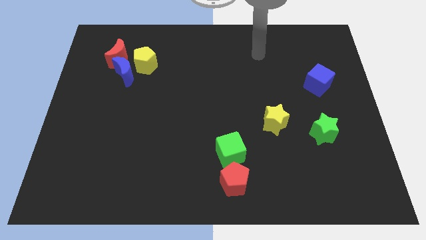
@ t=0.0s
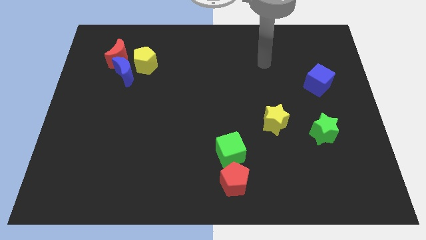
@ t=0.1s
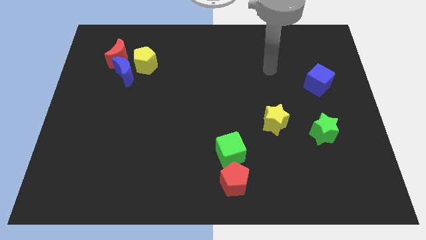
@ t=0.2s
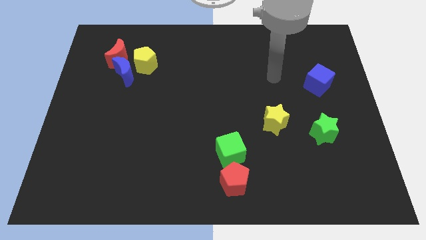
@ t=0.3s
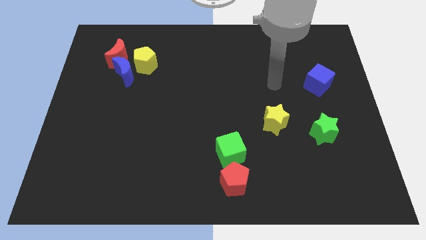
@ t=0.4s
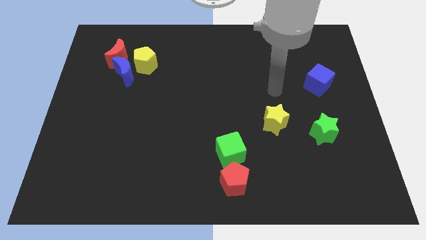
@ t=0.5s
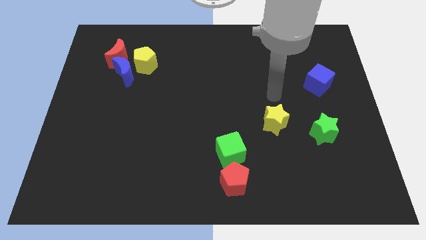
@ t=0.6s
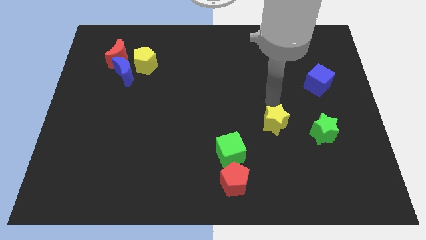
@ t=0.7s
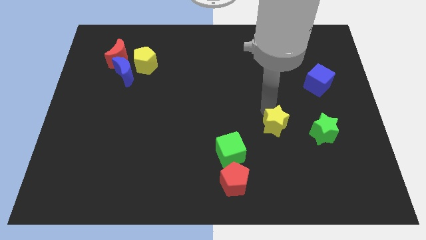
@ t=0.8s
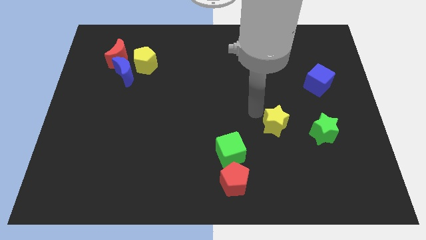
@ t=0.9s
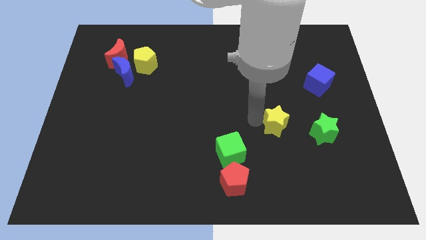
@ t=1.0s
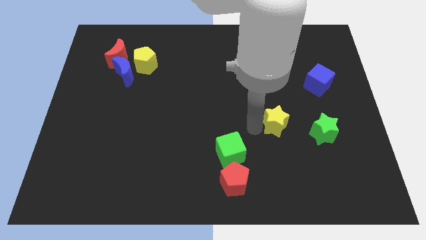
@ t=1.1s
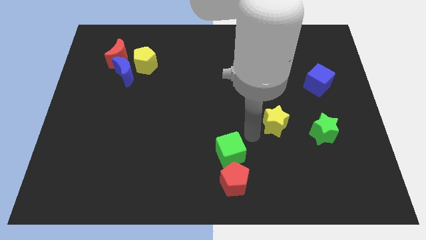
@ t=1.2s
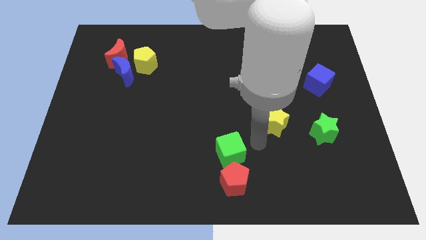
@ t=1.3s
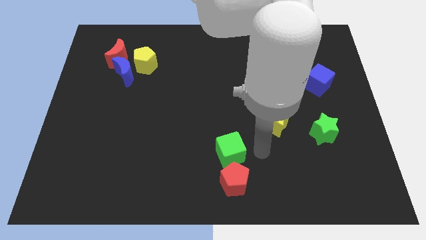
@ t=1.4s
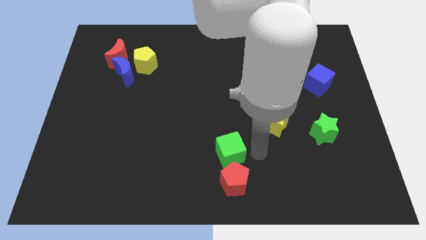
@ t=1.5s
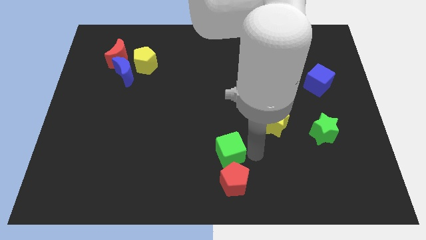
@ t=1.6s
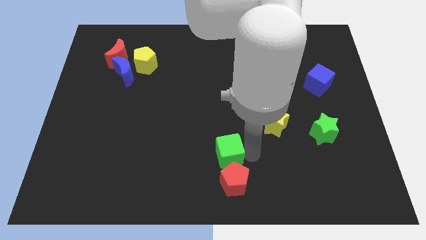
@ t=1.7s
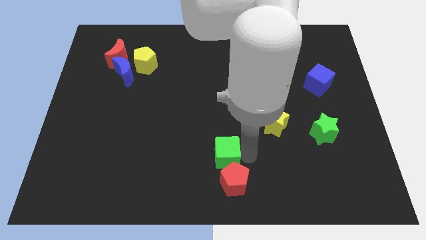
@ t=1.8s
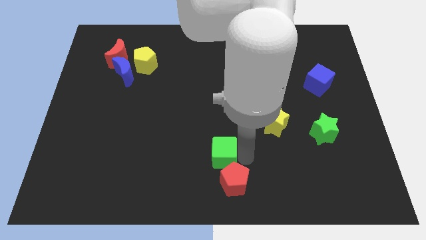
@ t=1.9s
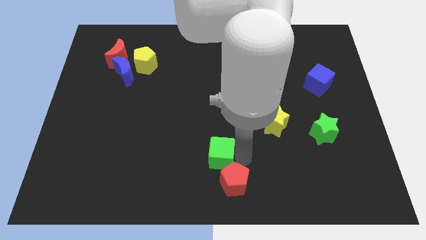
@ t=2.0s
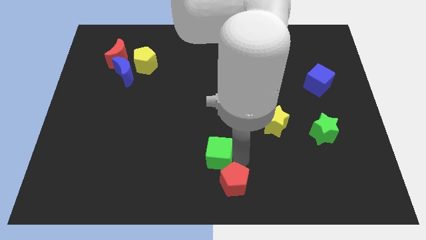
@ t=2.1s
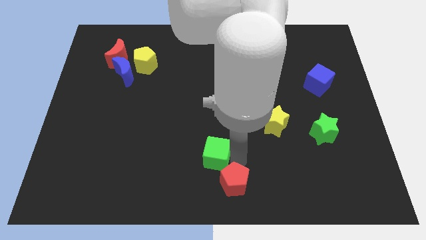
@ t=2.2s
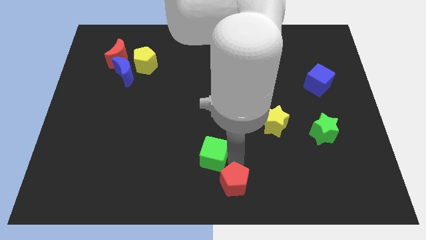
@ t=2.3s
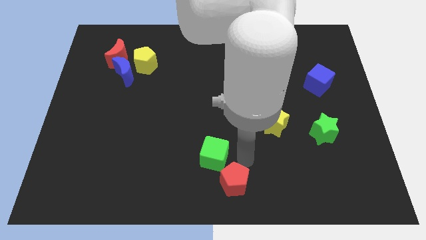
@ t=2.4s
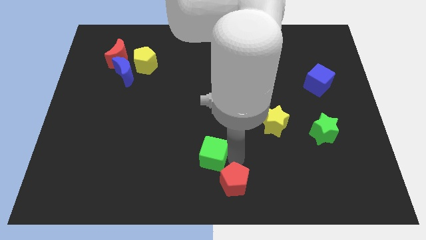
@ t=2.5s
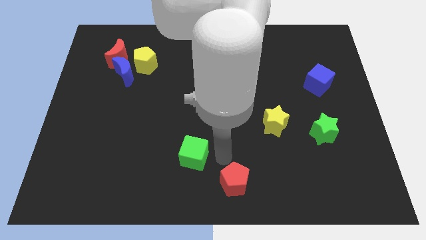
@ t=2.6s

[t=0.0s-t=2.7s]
move the green cube a bit left

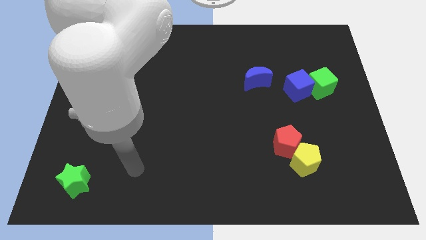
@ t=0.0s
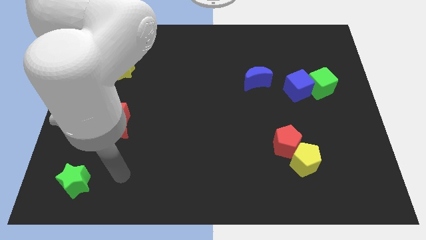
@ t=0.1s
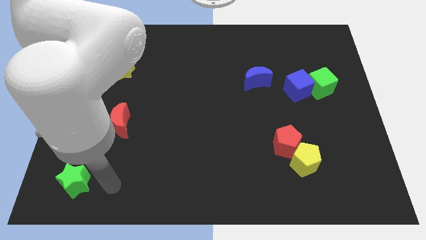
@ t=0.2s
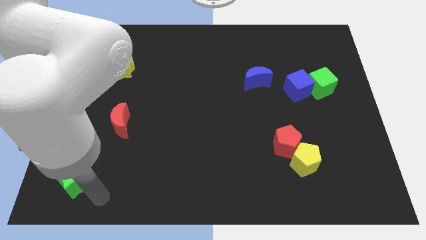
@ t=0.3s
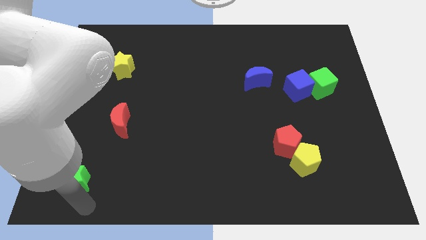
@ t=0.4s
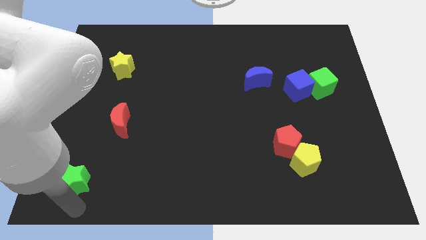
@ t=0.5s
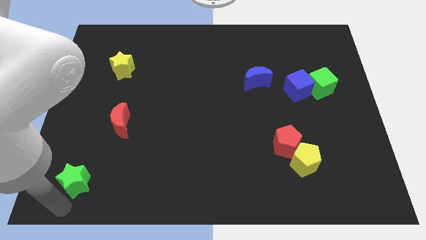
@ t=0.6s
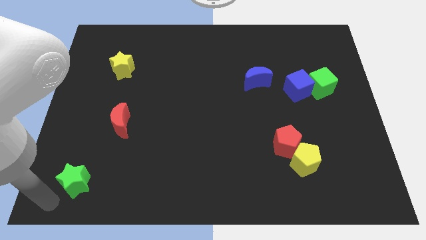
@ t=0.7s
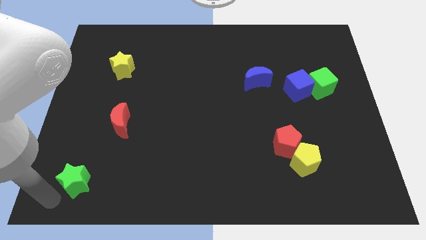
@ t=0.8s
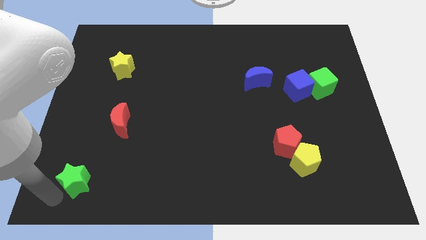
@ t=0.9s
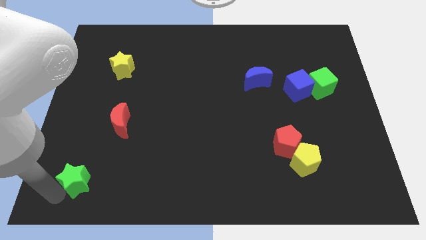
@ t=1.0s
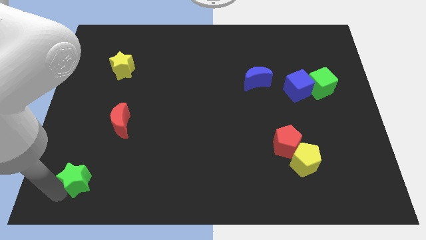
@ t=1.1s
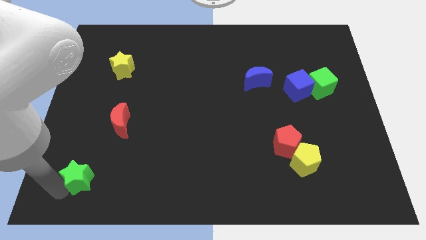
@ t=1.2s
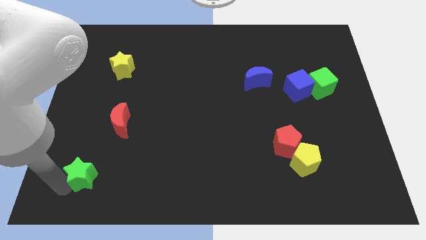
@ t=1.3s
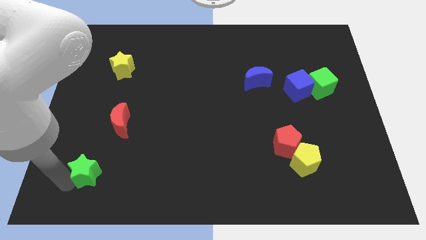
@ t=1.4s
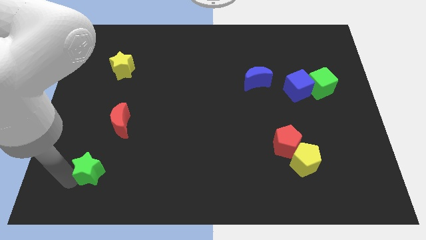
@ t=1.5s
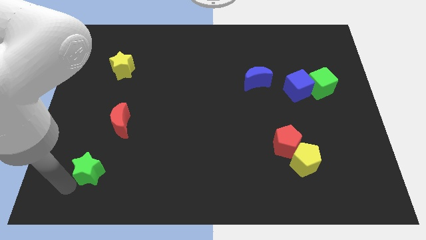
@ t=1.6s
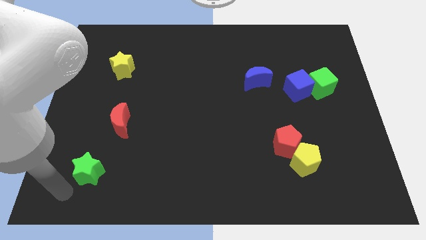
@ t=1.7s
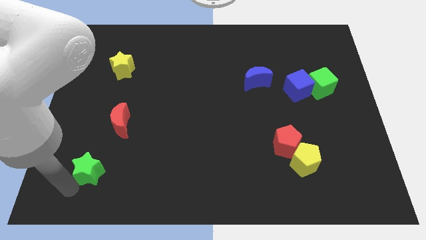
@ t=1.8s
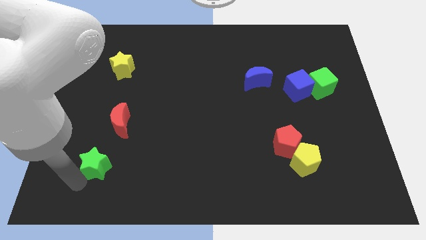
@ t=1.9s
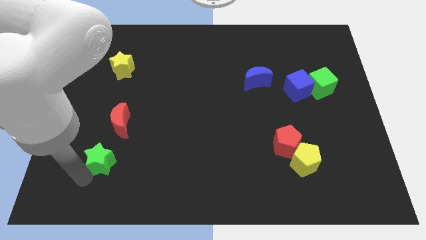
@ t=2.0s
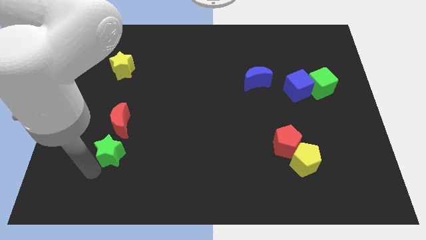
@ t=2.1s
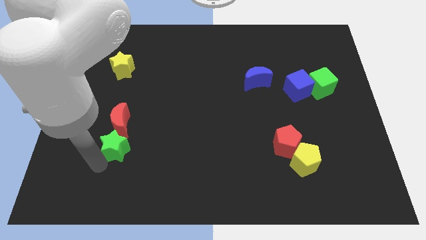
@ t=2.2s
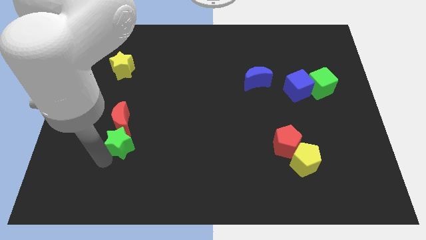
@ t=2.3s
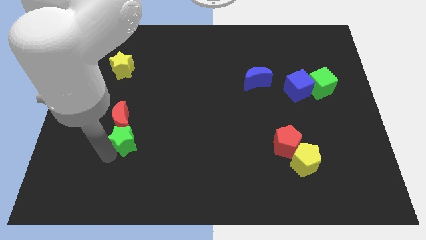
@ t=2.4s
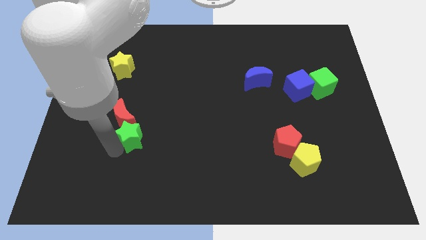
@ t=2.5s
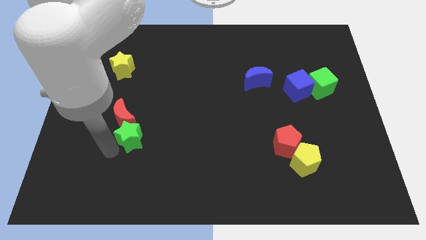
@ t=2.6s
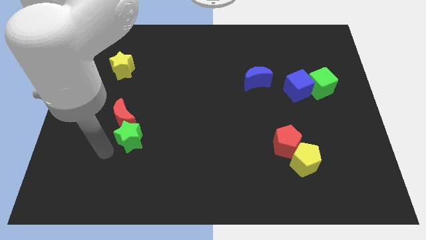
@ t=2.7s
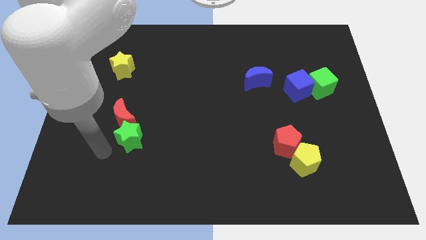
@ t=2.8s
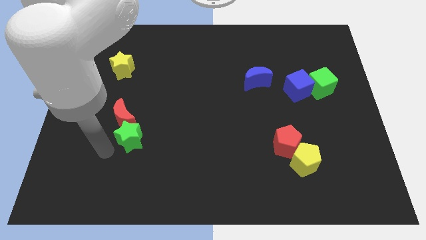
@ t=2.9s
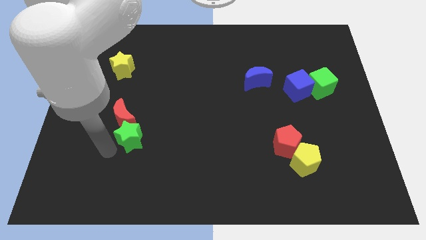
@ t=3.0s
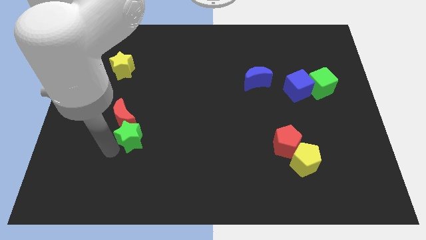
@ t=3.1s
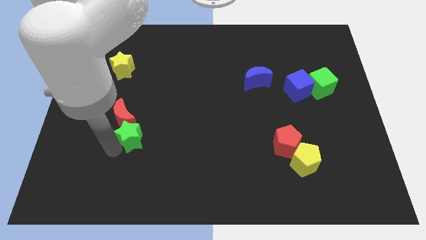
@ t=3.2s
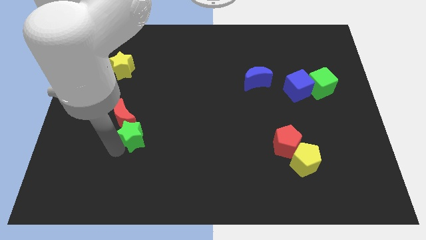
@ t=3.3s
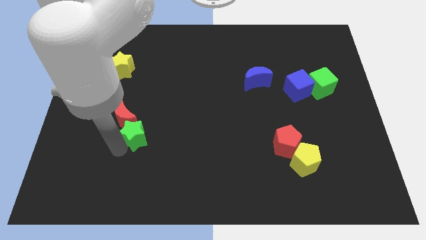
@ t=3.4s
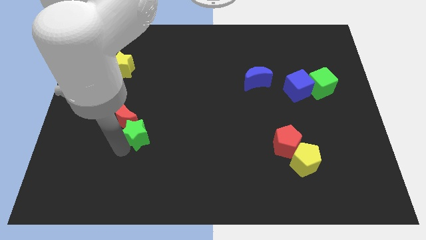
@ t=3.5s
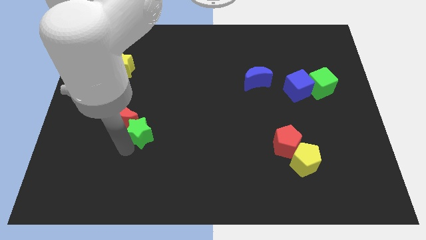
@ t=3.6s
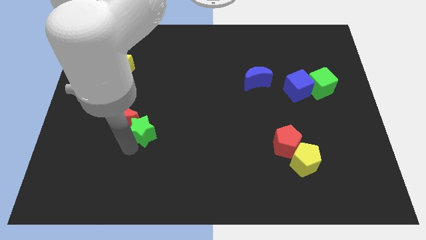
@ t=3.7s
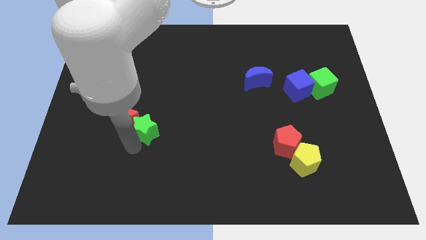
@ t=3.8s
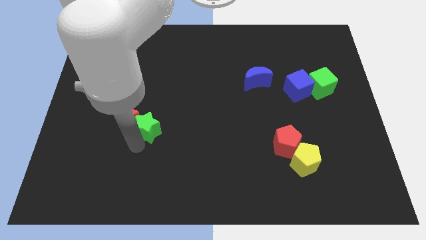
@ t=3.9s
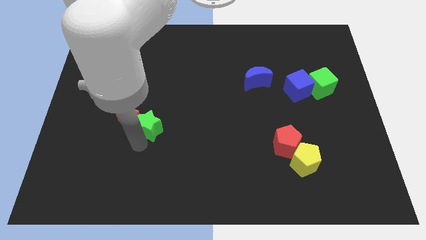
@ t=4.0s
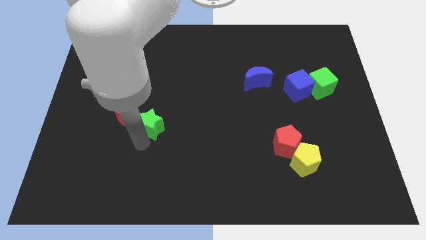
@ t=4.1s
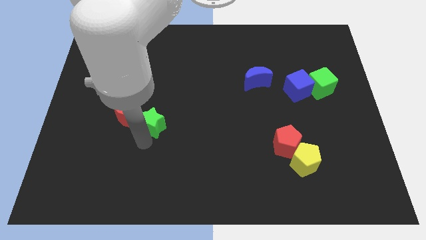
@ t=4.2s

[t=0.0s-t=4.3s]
slide the green star upwards and to the right diagonally

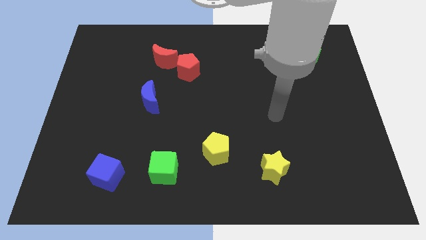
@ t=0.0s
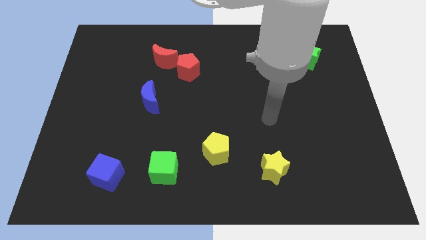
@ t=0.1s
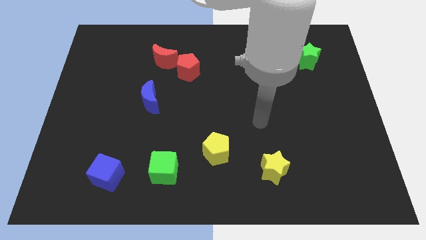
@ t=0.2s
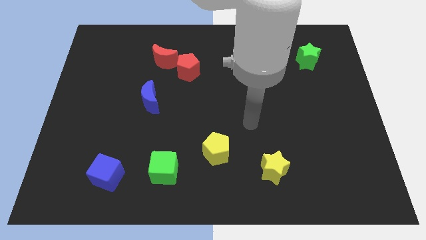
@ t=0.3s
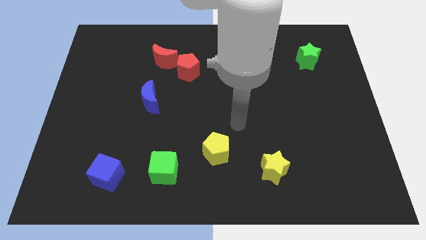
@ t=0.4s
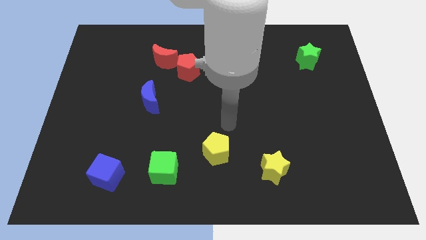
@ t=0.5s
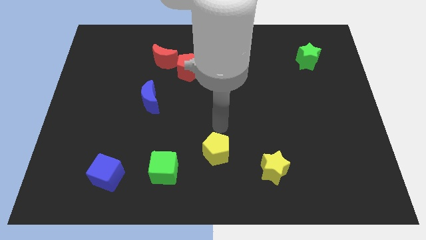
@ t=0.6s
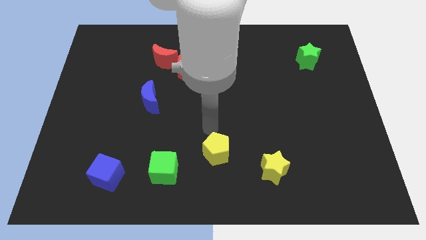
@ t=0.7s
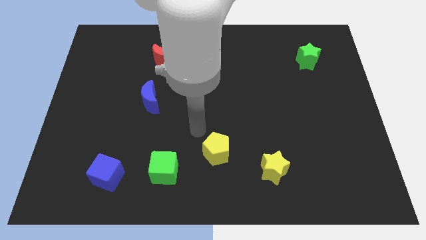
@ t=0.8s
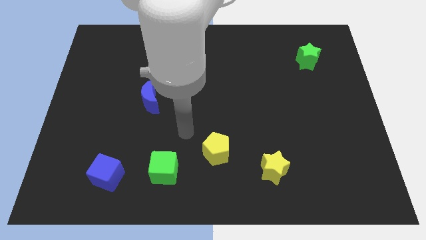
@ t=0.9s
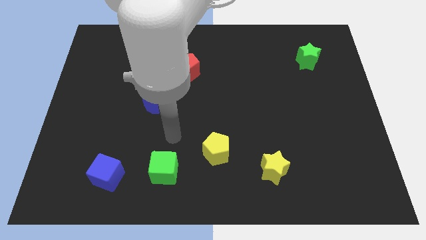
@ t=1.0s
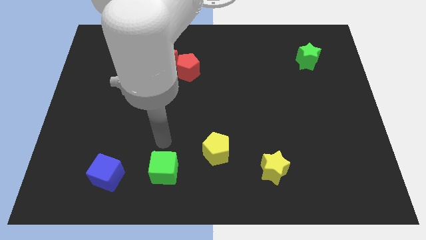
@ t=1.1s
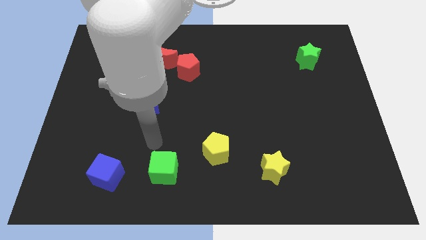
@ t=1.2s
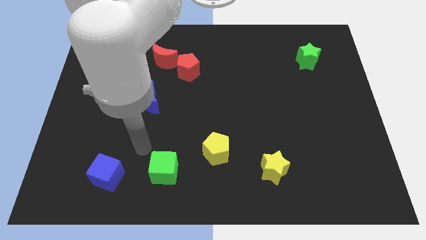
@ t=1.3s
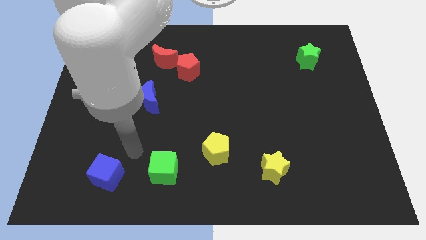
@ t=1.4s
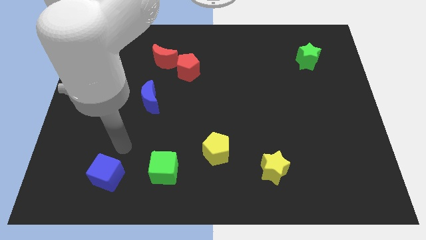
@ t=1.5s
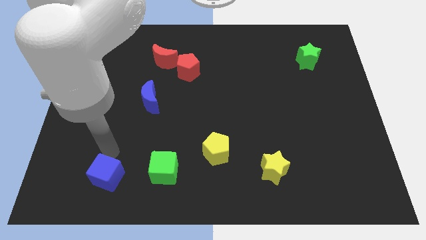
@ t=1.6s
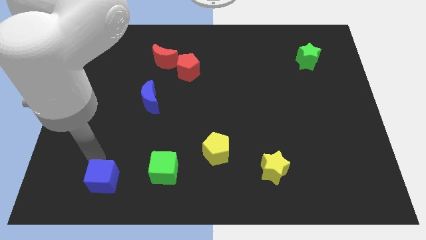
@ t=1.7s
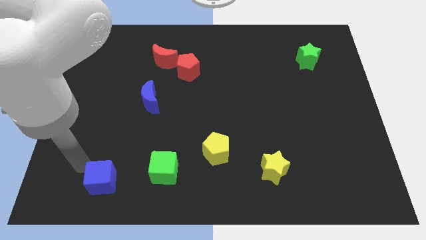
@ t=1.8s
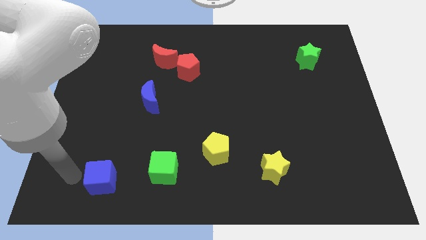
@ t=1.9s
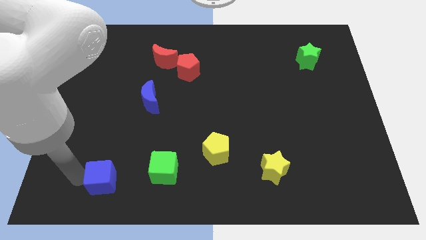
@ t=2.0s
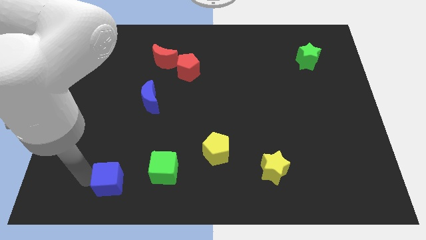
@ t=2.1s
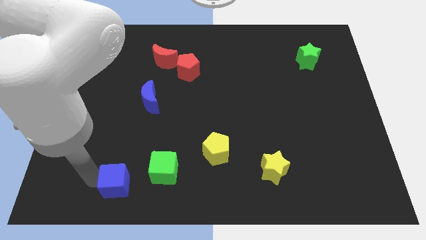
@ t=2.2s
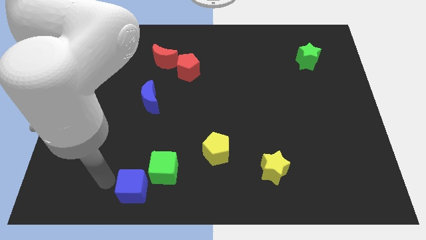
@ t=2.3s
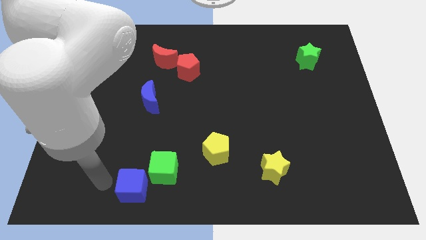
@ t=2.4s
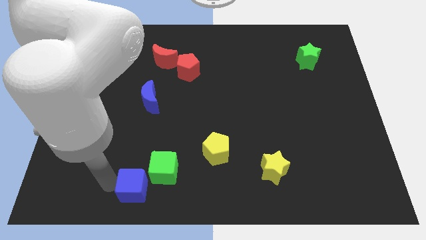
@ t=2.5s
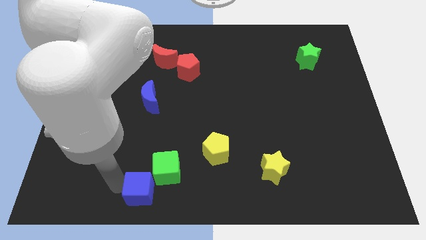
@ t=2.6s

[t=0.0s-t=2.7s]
push the blue cube right a little bit
